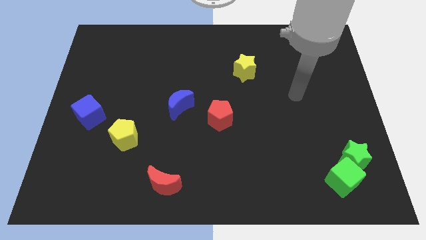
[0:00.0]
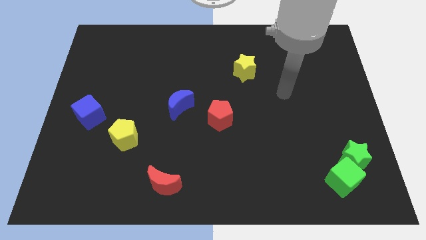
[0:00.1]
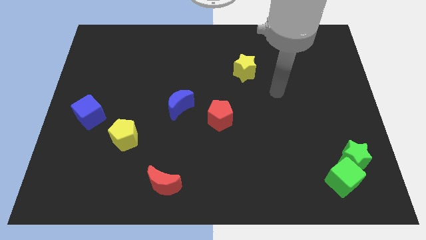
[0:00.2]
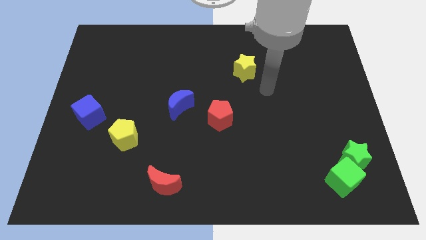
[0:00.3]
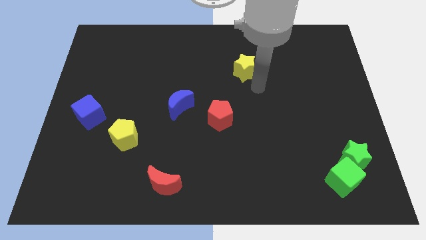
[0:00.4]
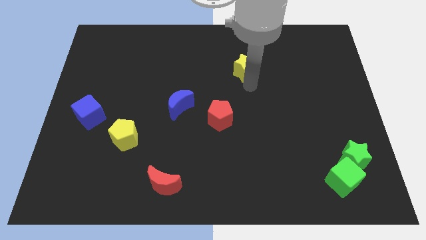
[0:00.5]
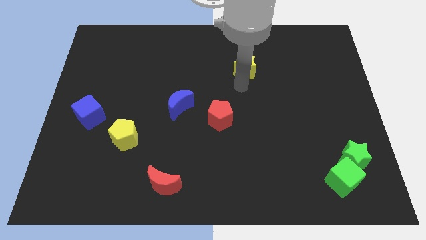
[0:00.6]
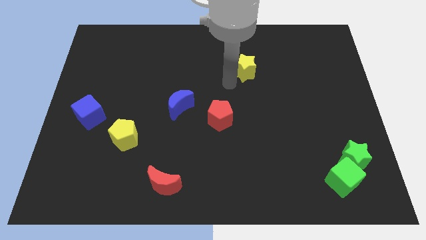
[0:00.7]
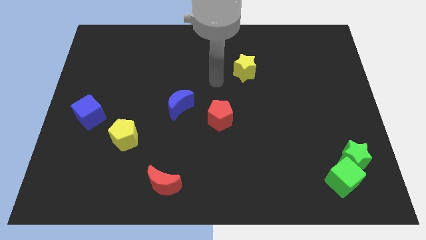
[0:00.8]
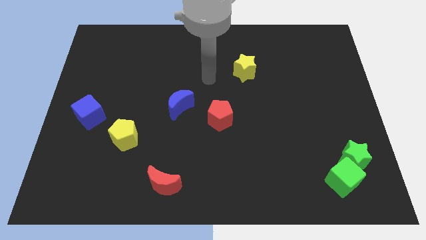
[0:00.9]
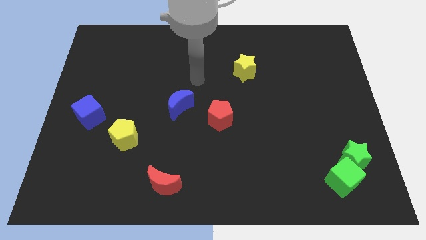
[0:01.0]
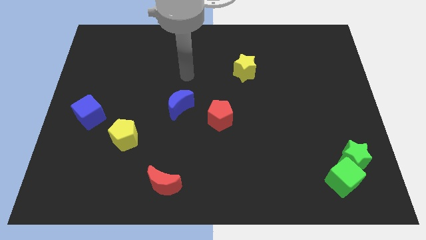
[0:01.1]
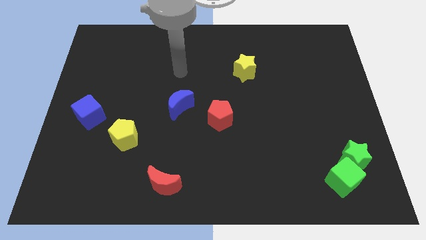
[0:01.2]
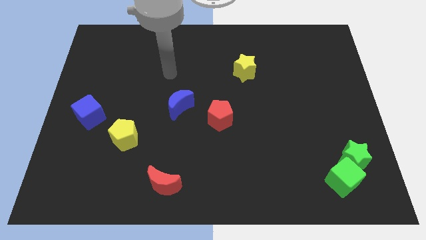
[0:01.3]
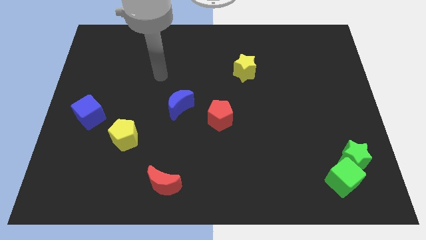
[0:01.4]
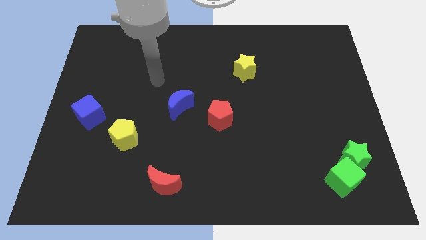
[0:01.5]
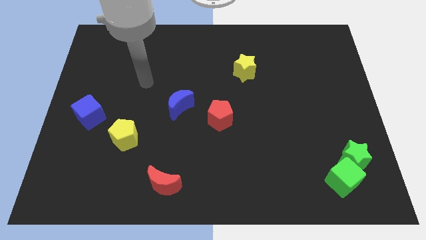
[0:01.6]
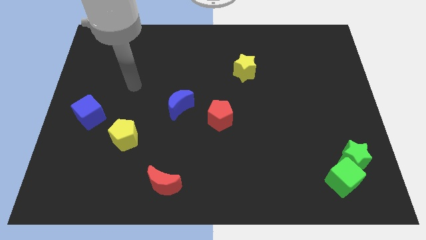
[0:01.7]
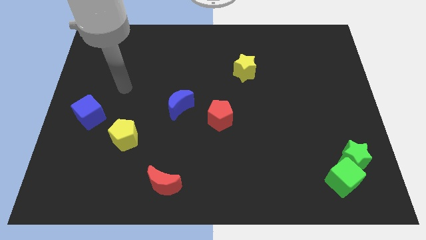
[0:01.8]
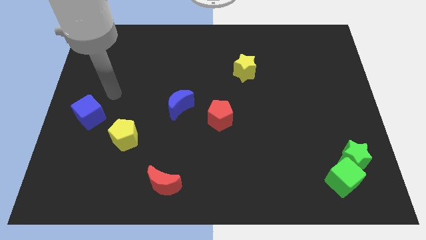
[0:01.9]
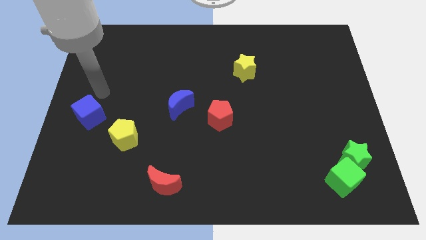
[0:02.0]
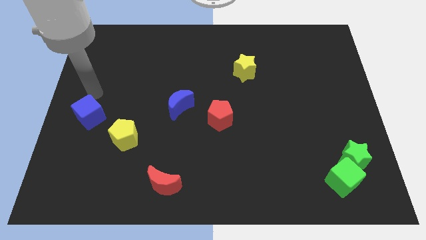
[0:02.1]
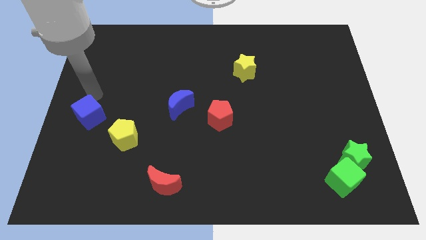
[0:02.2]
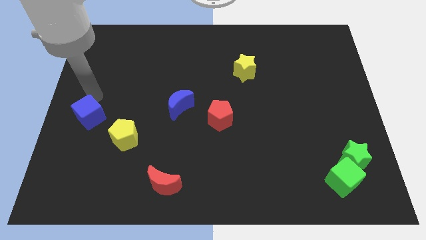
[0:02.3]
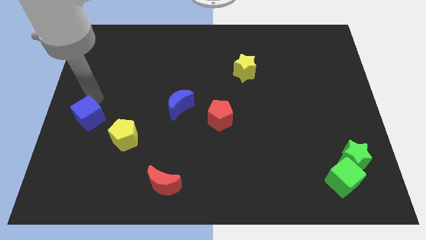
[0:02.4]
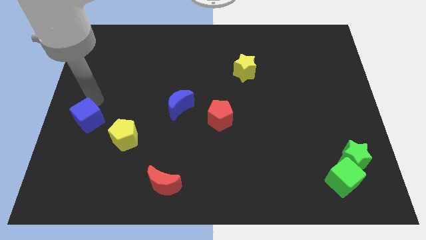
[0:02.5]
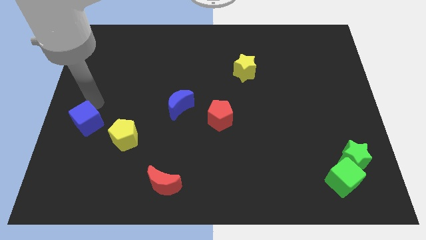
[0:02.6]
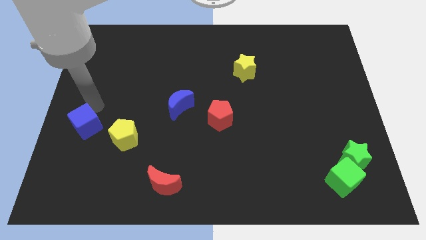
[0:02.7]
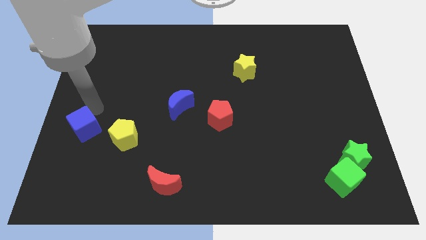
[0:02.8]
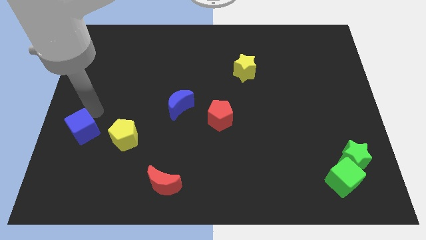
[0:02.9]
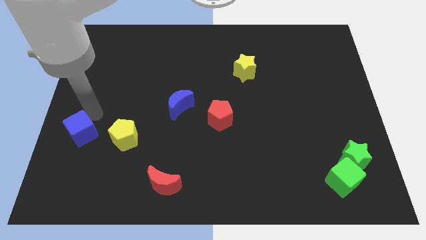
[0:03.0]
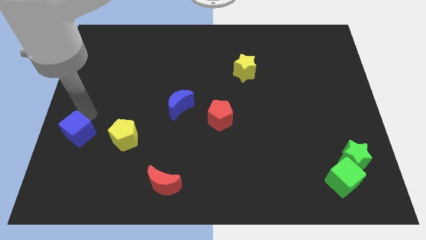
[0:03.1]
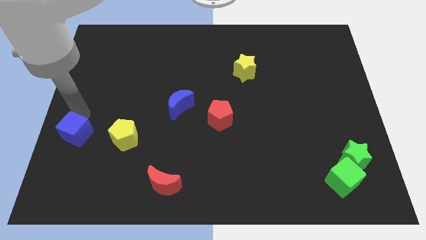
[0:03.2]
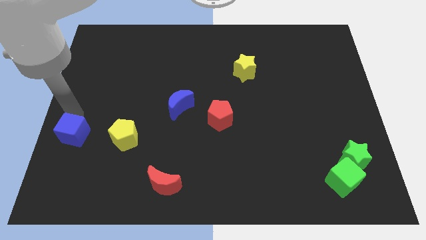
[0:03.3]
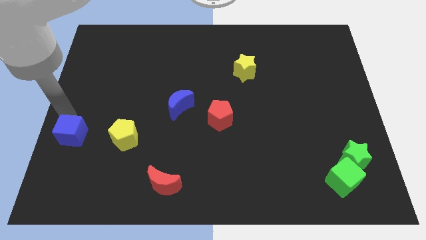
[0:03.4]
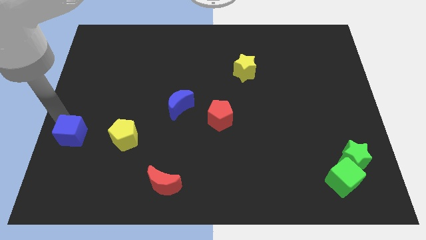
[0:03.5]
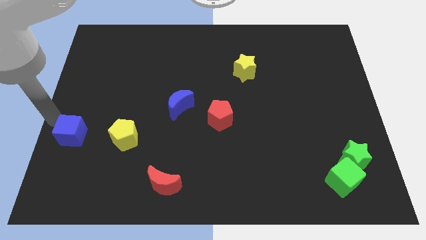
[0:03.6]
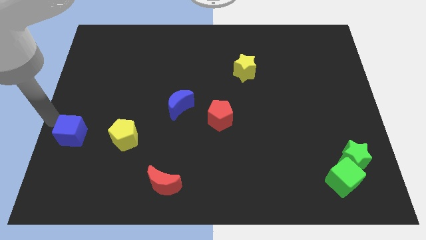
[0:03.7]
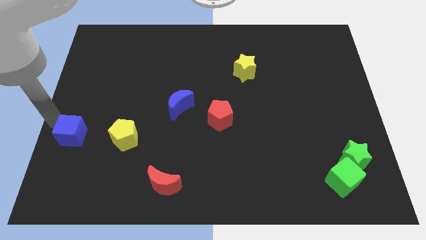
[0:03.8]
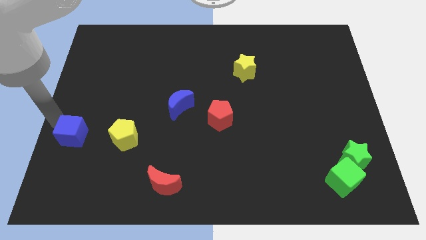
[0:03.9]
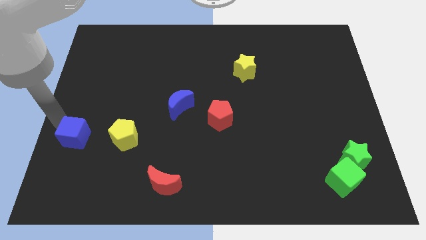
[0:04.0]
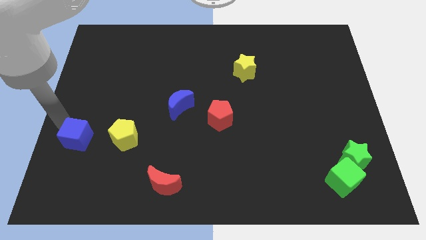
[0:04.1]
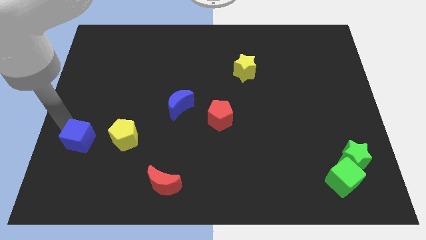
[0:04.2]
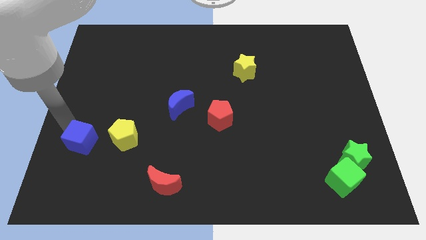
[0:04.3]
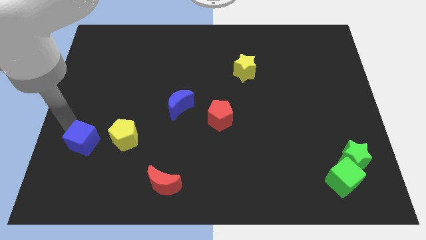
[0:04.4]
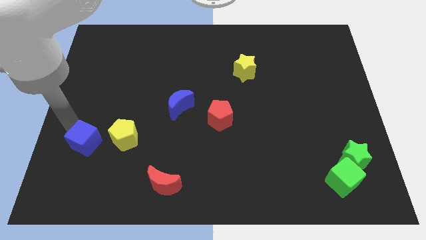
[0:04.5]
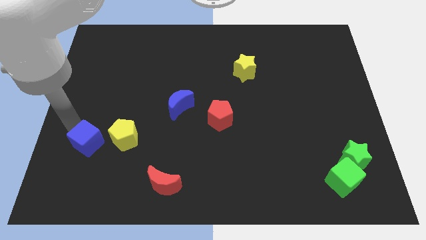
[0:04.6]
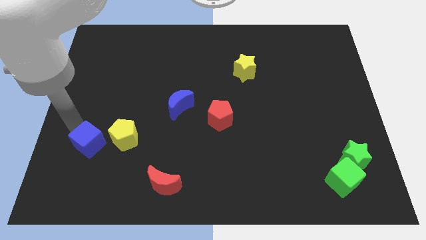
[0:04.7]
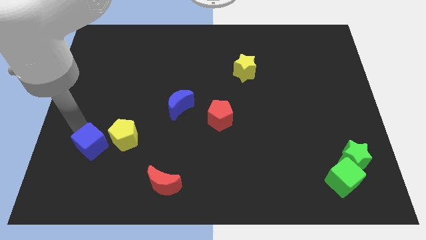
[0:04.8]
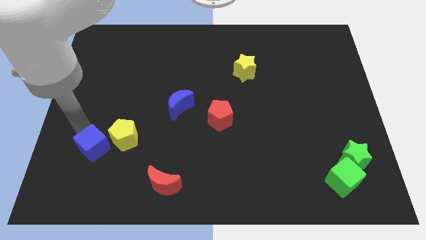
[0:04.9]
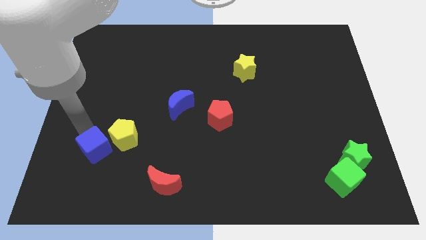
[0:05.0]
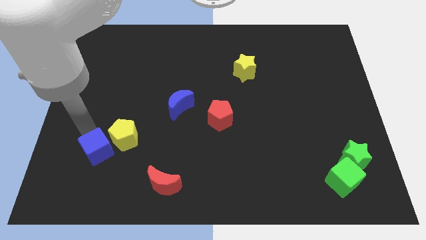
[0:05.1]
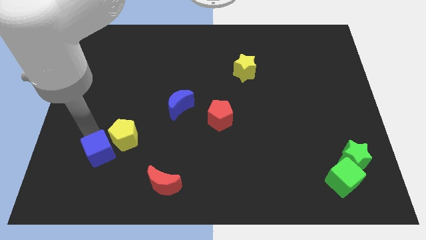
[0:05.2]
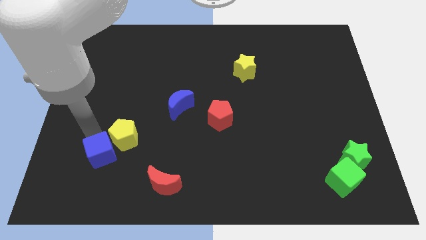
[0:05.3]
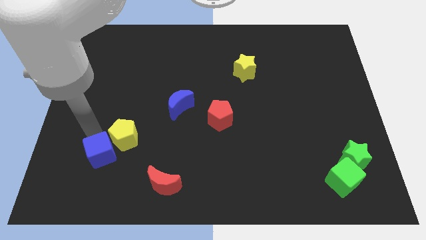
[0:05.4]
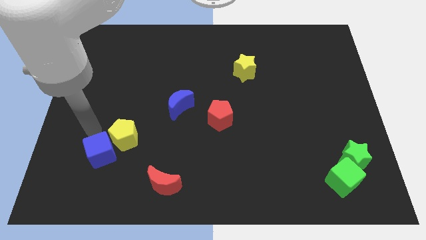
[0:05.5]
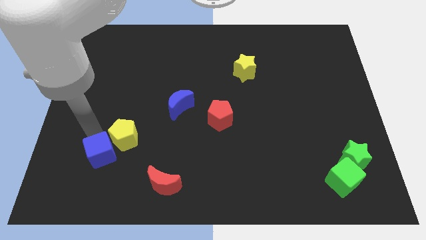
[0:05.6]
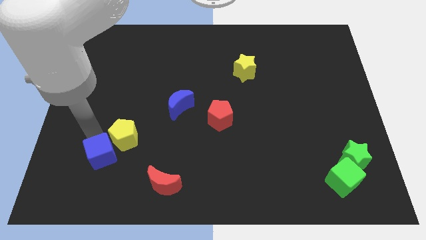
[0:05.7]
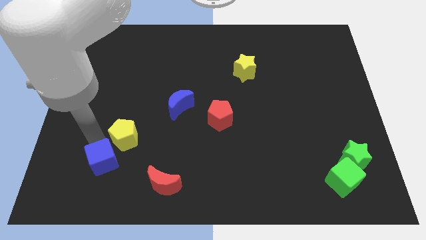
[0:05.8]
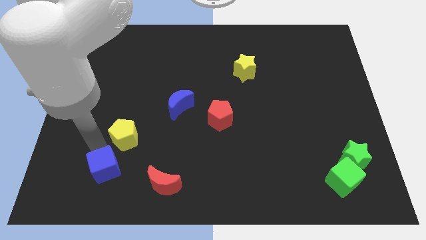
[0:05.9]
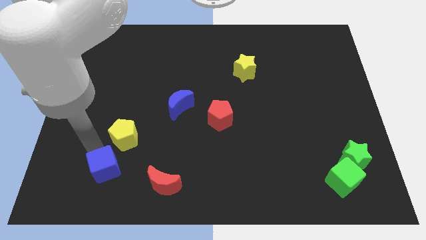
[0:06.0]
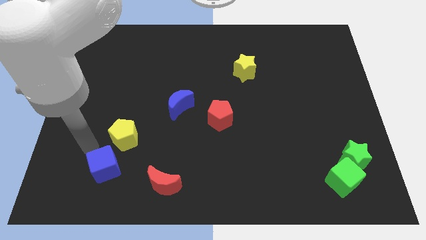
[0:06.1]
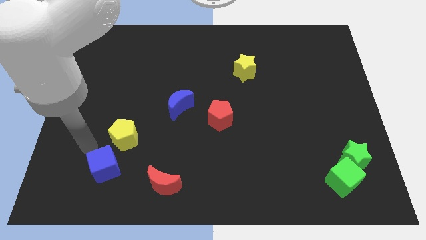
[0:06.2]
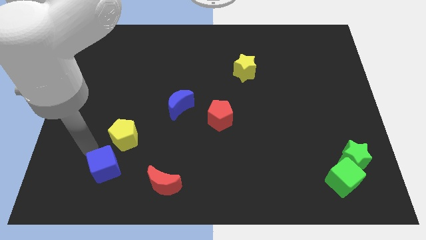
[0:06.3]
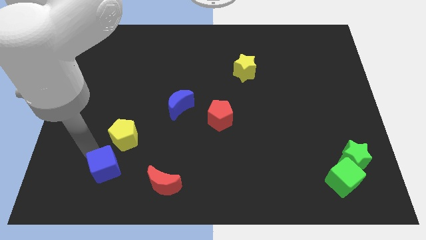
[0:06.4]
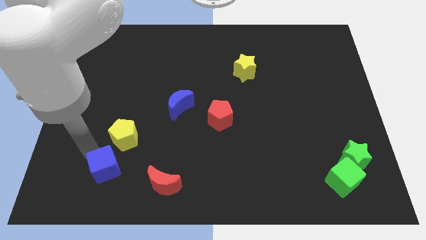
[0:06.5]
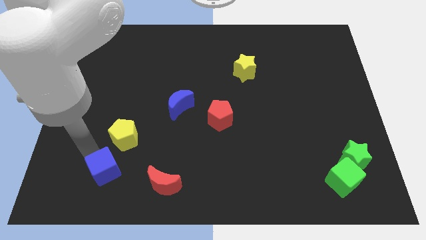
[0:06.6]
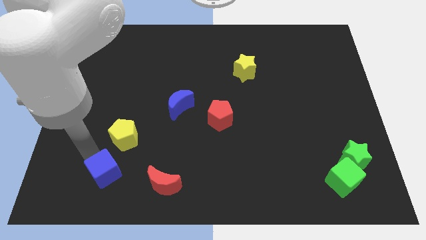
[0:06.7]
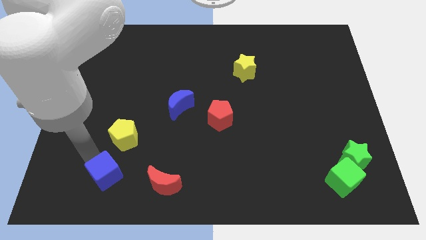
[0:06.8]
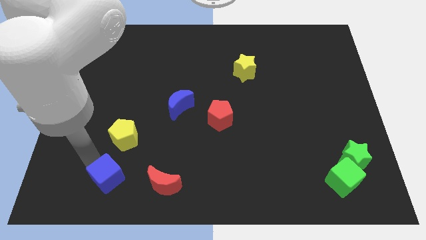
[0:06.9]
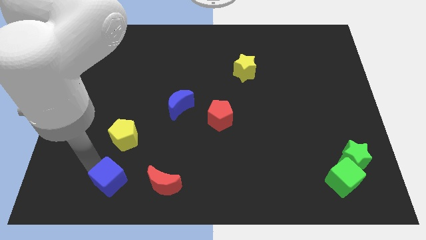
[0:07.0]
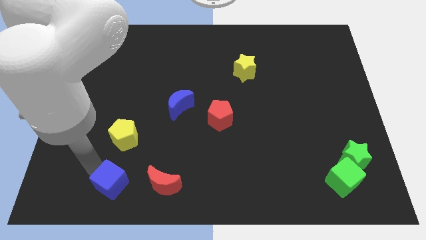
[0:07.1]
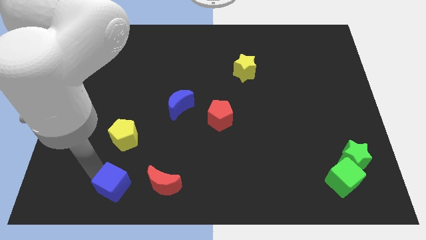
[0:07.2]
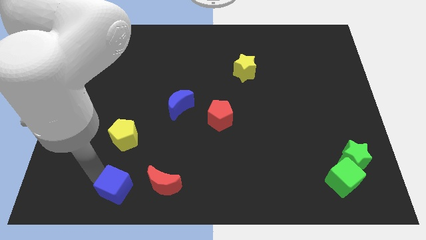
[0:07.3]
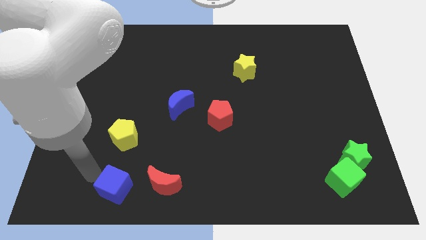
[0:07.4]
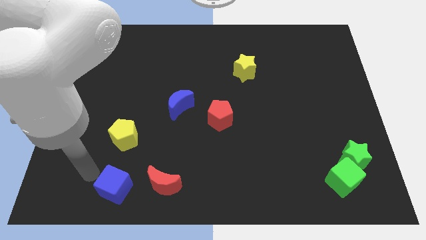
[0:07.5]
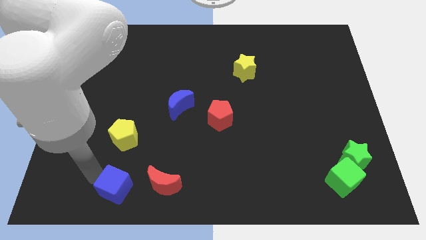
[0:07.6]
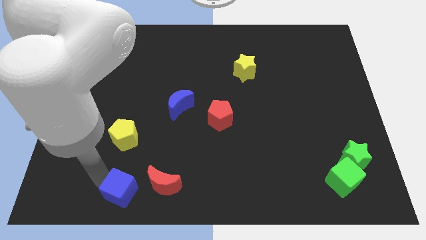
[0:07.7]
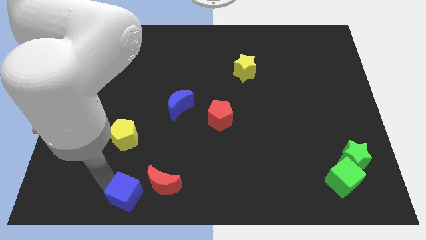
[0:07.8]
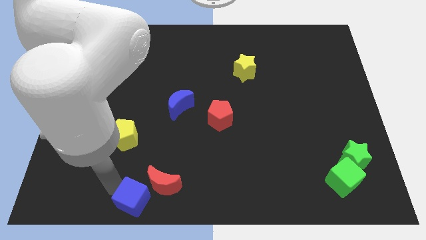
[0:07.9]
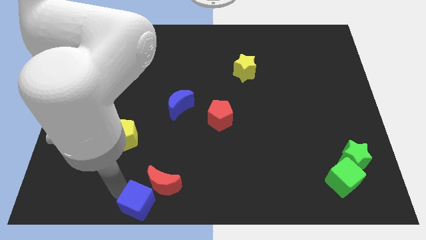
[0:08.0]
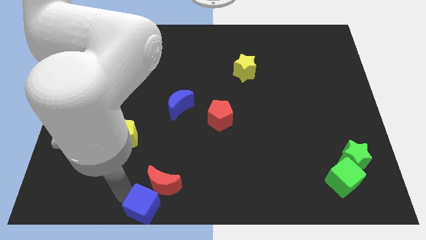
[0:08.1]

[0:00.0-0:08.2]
slide the blue cube to the bottom side
